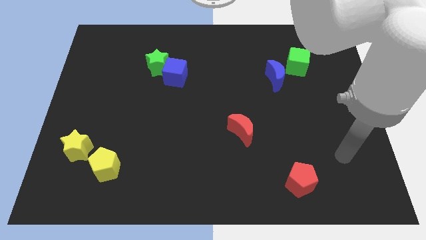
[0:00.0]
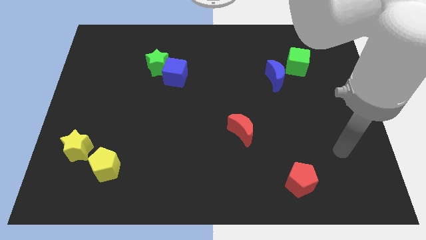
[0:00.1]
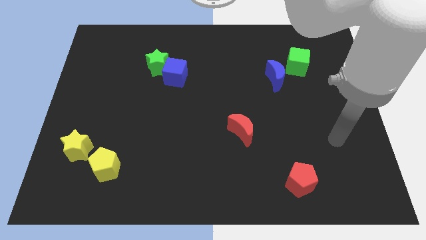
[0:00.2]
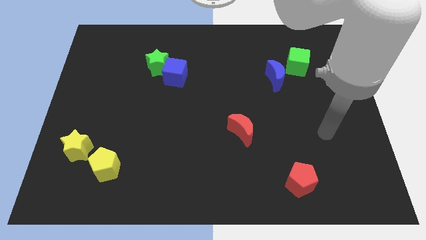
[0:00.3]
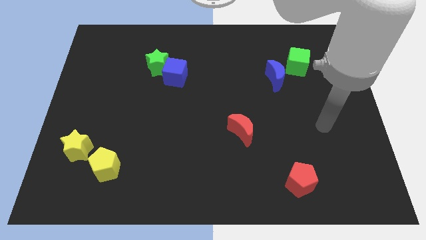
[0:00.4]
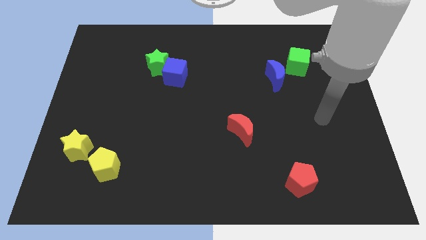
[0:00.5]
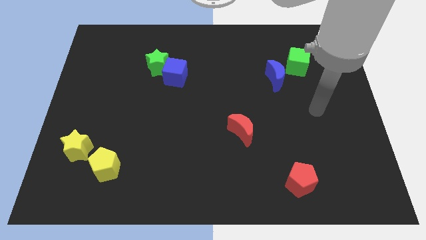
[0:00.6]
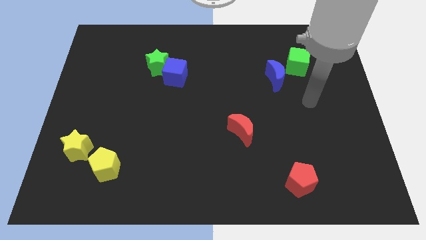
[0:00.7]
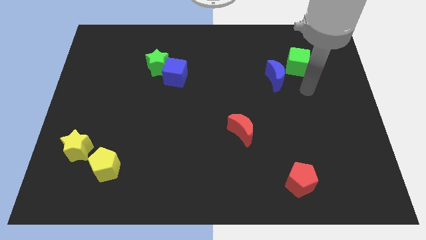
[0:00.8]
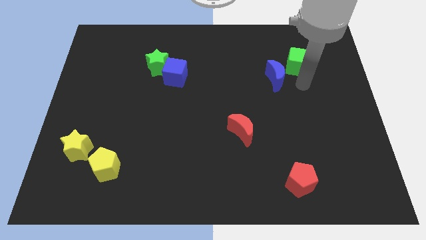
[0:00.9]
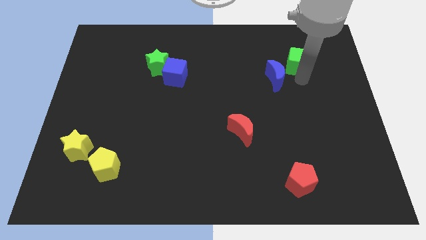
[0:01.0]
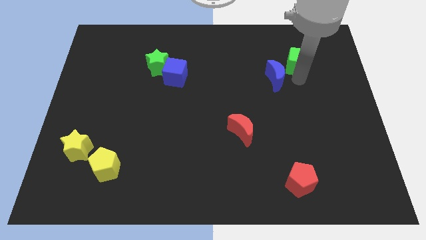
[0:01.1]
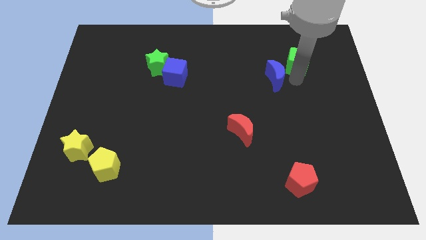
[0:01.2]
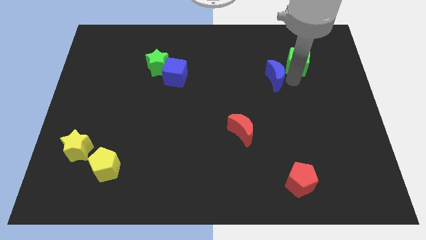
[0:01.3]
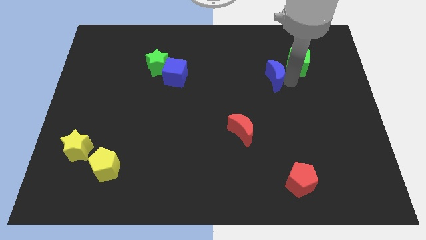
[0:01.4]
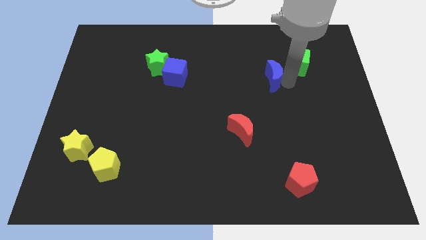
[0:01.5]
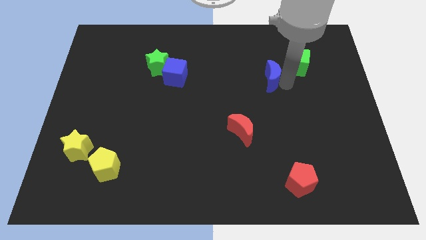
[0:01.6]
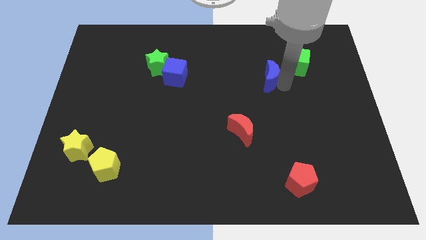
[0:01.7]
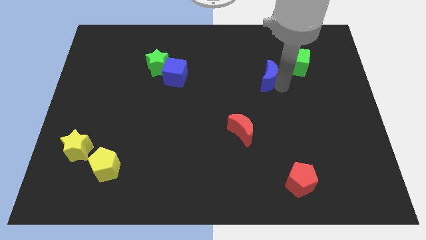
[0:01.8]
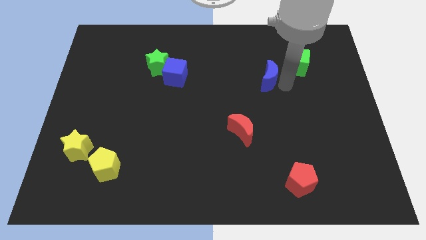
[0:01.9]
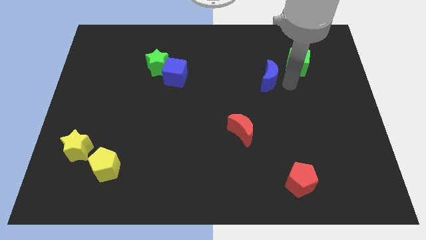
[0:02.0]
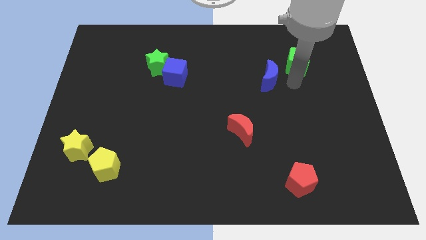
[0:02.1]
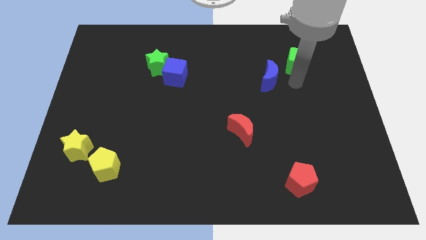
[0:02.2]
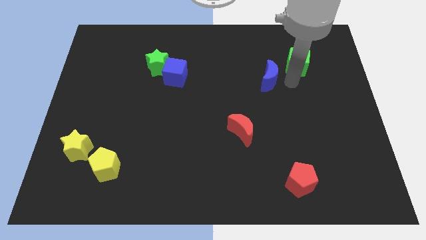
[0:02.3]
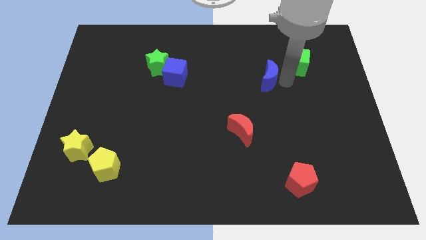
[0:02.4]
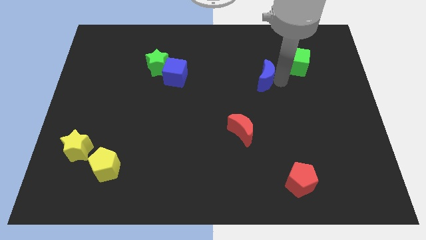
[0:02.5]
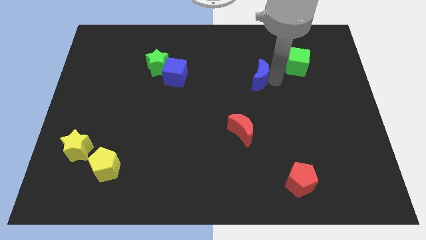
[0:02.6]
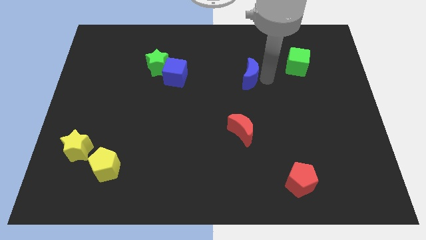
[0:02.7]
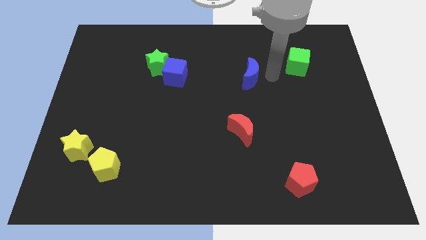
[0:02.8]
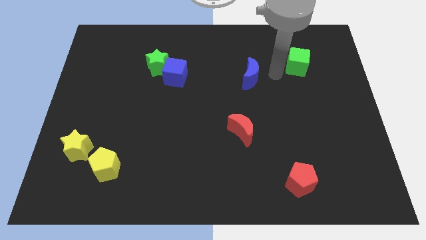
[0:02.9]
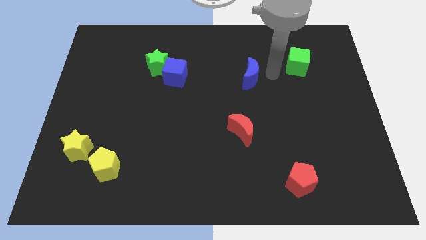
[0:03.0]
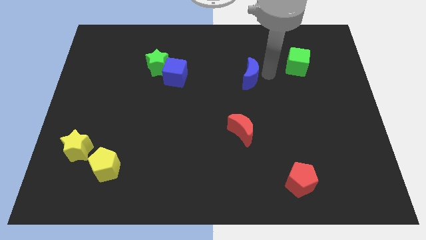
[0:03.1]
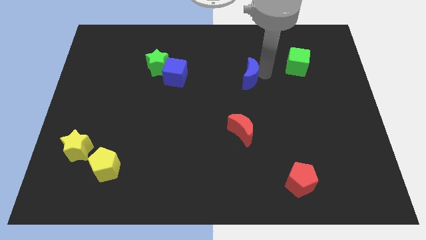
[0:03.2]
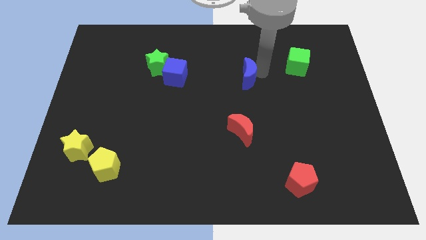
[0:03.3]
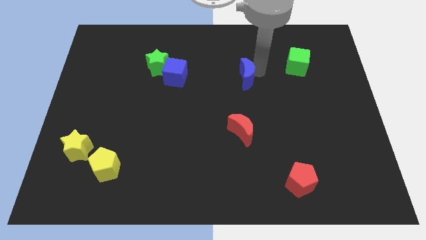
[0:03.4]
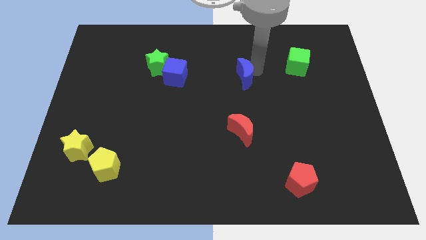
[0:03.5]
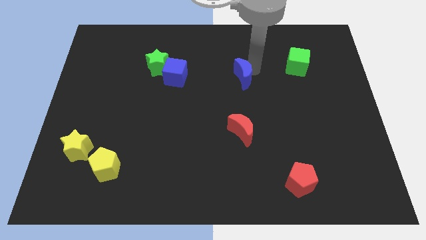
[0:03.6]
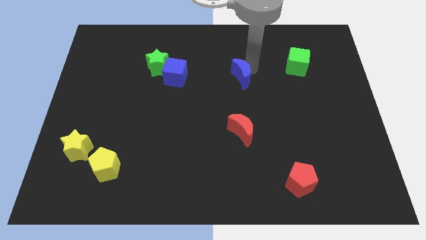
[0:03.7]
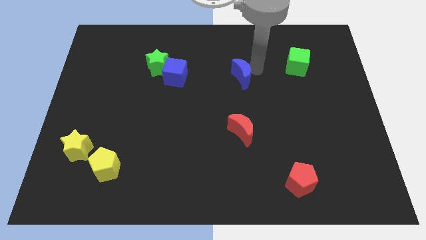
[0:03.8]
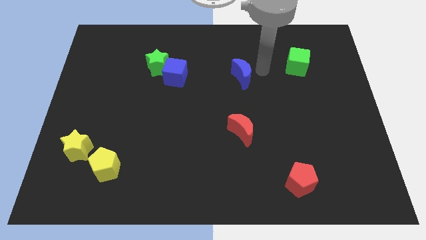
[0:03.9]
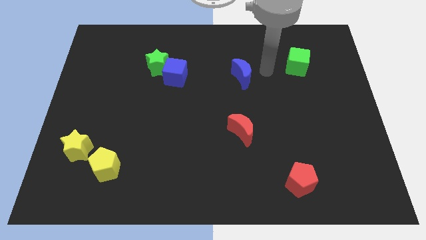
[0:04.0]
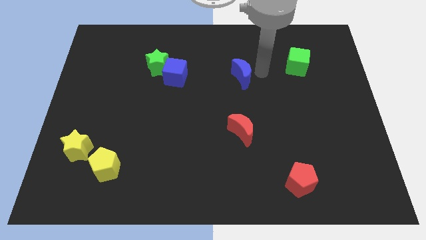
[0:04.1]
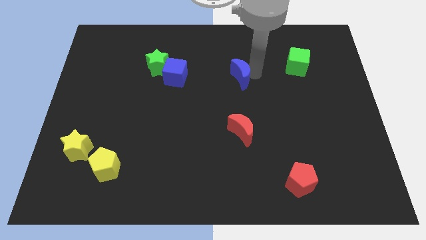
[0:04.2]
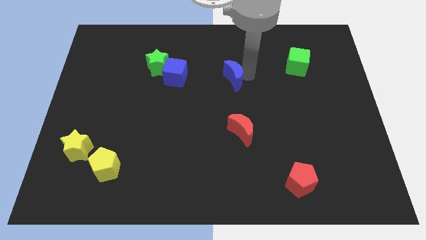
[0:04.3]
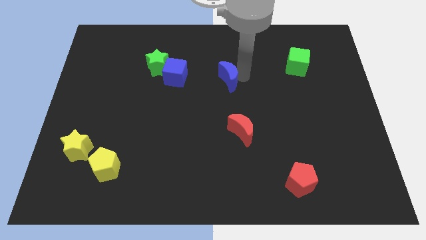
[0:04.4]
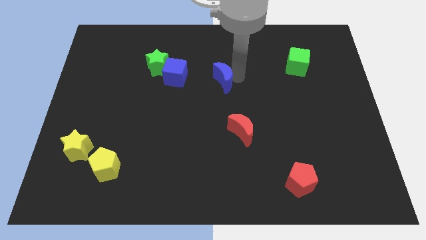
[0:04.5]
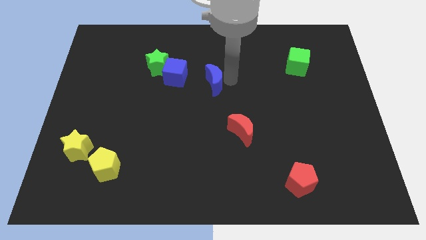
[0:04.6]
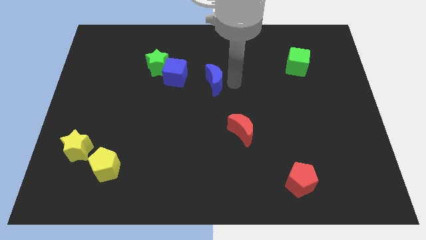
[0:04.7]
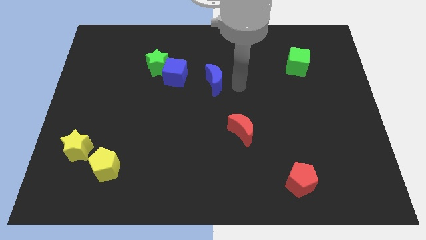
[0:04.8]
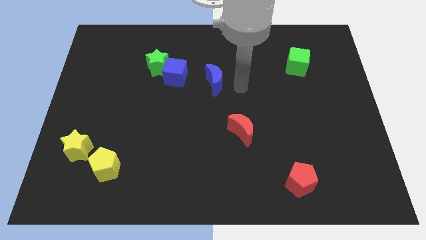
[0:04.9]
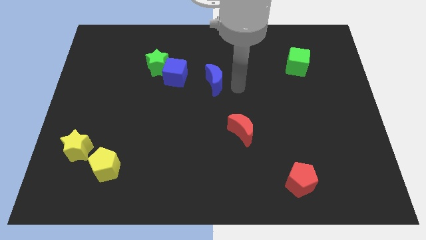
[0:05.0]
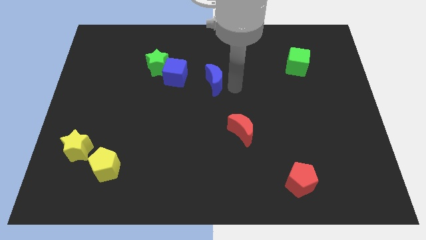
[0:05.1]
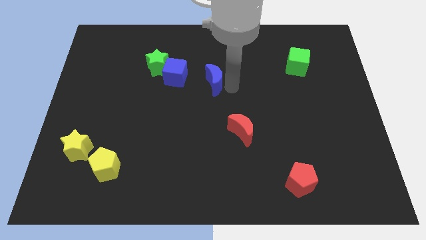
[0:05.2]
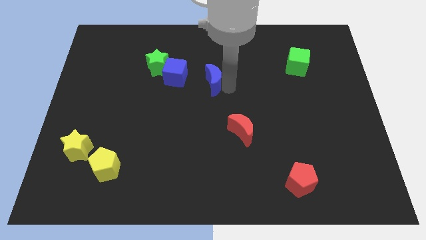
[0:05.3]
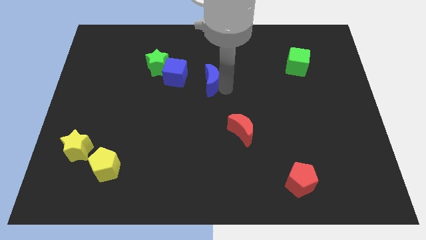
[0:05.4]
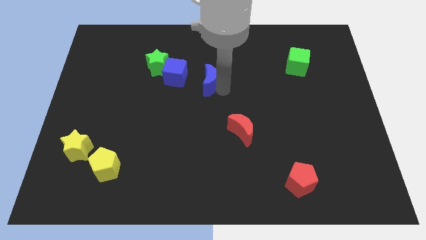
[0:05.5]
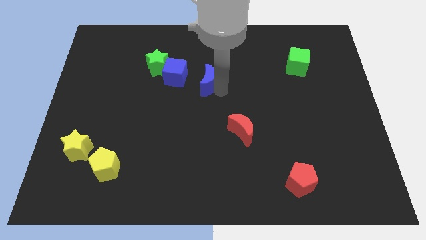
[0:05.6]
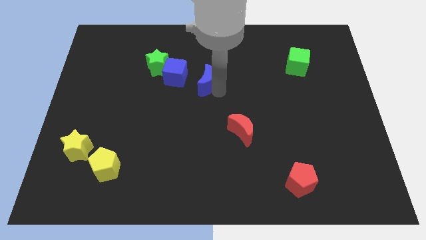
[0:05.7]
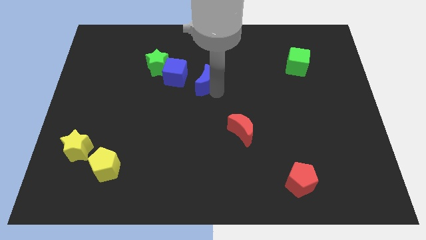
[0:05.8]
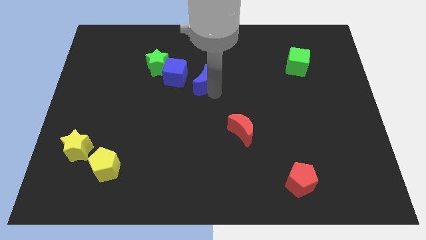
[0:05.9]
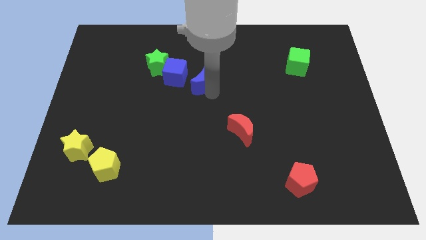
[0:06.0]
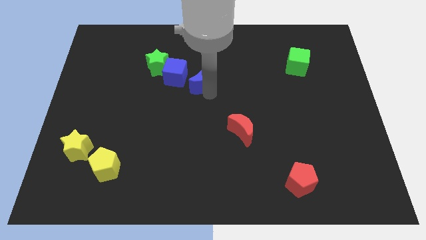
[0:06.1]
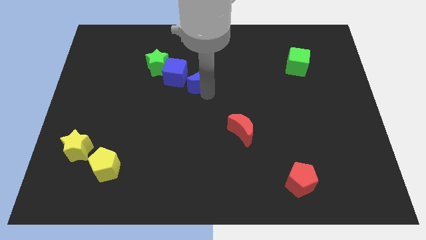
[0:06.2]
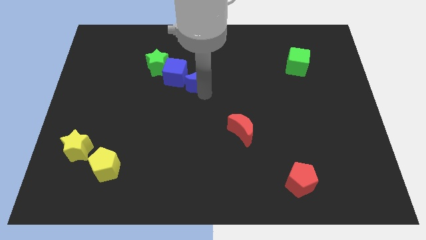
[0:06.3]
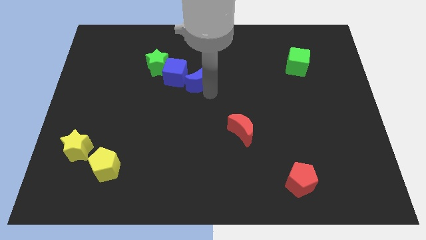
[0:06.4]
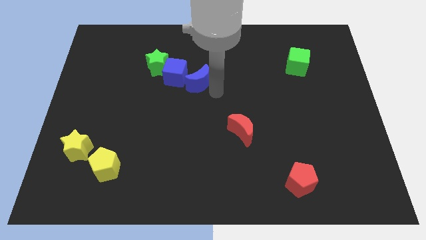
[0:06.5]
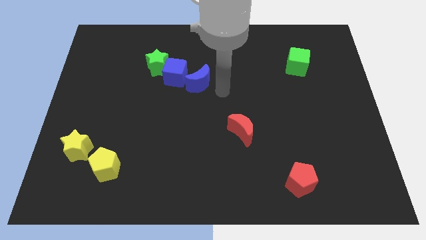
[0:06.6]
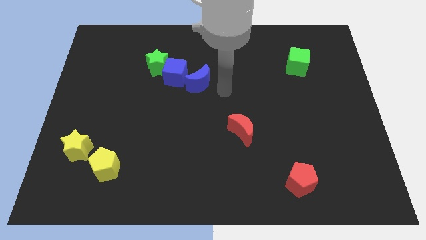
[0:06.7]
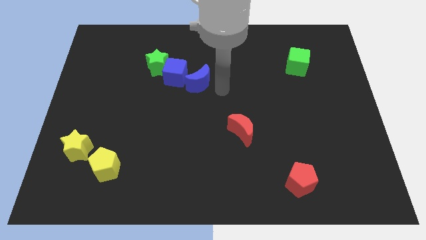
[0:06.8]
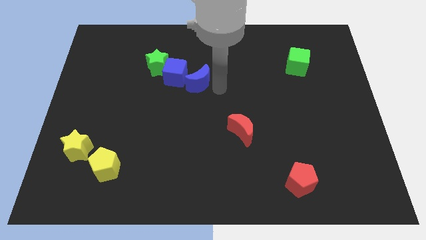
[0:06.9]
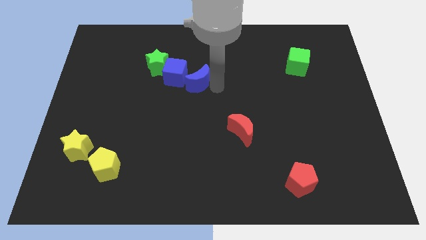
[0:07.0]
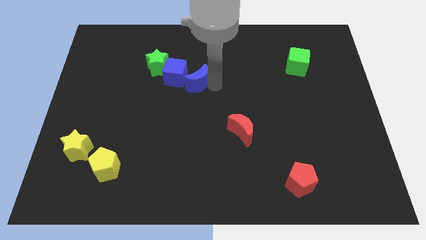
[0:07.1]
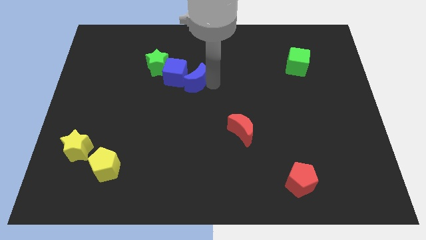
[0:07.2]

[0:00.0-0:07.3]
move the blue moon close to the blue cube

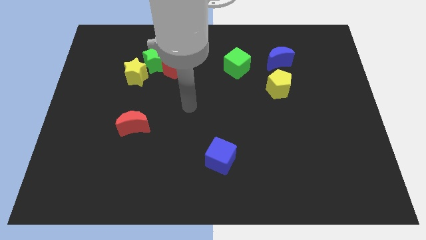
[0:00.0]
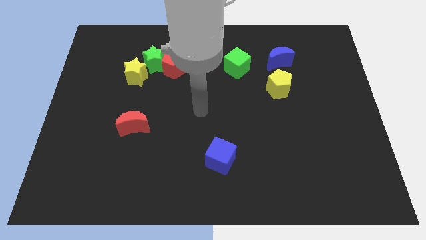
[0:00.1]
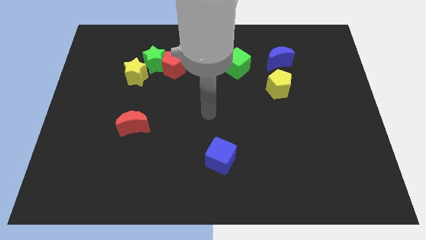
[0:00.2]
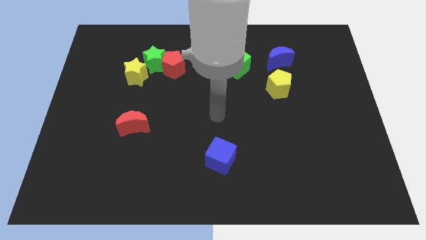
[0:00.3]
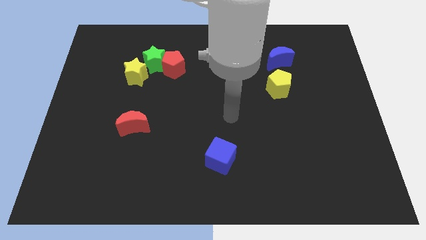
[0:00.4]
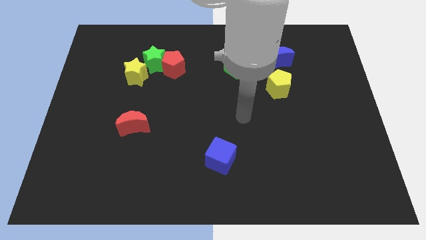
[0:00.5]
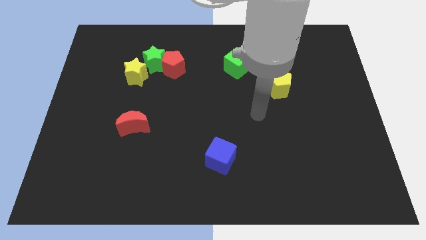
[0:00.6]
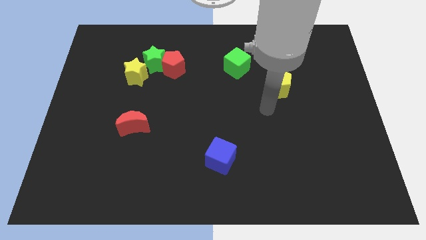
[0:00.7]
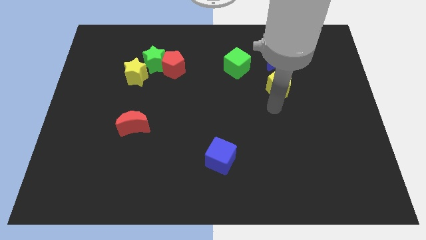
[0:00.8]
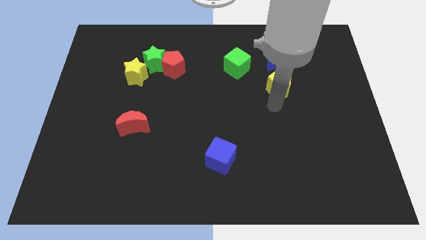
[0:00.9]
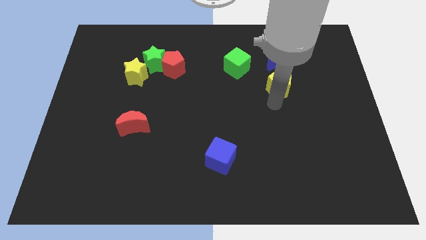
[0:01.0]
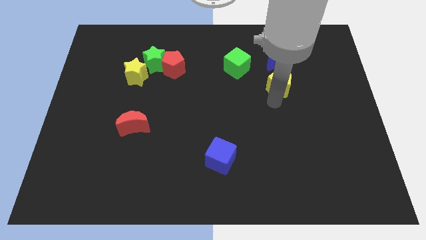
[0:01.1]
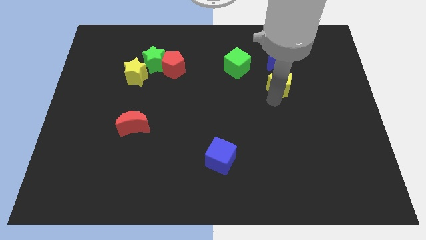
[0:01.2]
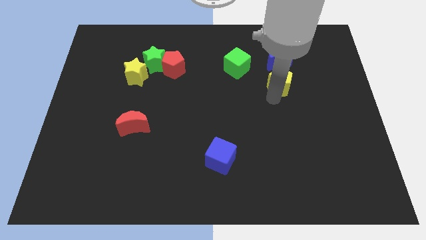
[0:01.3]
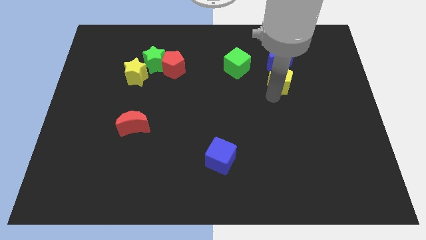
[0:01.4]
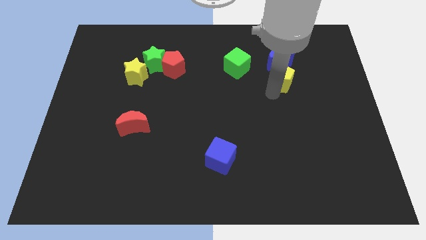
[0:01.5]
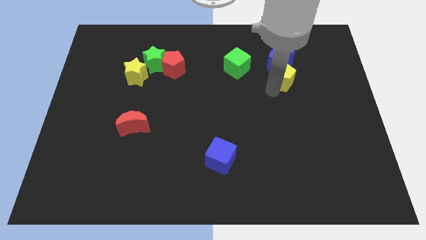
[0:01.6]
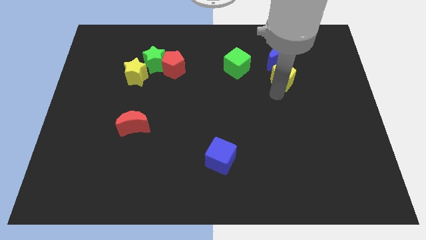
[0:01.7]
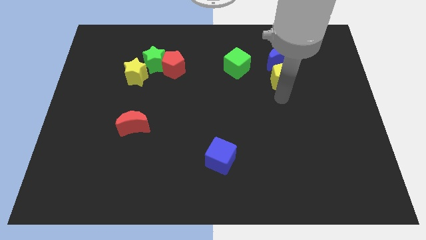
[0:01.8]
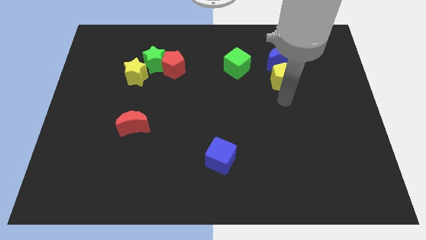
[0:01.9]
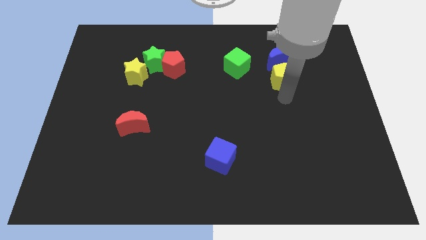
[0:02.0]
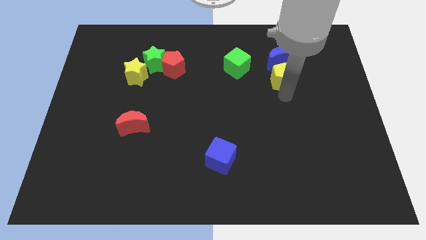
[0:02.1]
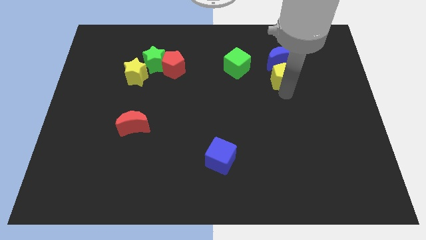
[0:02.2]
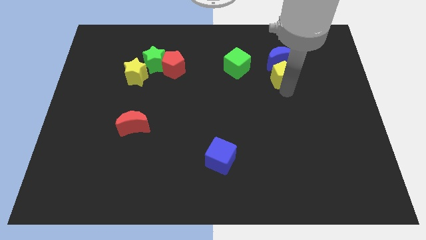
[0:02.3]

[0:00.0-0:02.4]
move the yellow pentagon next to the blue moon
